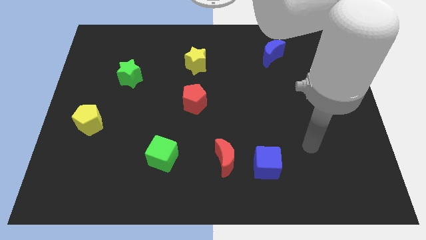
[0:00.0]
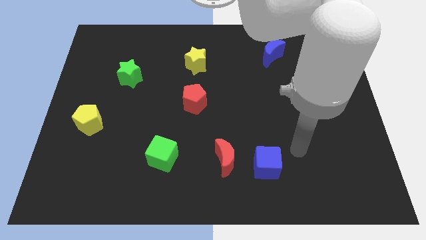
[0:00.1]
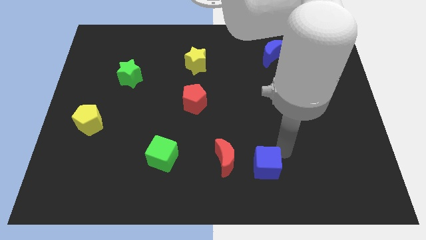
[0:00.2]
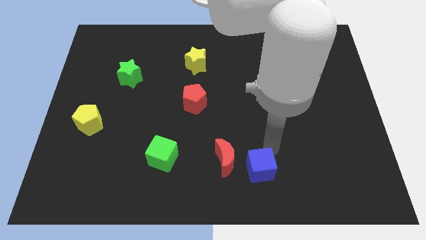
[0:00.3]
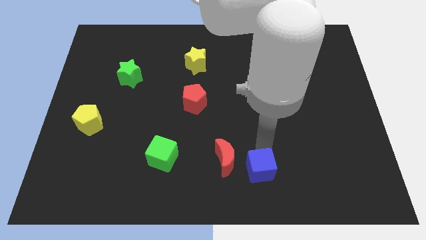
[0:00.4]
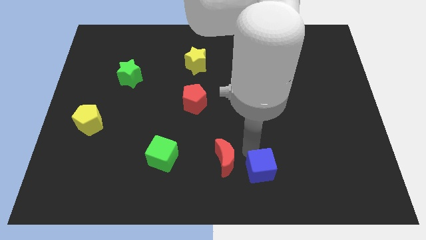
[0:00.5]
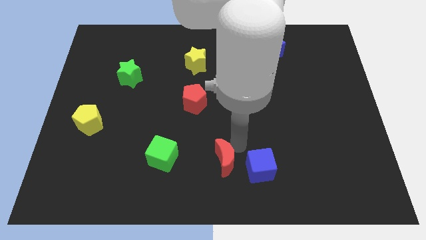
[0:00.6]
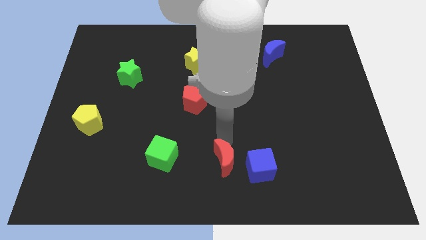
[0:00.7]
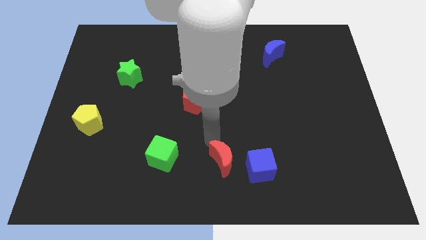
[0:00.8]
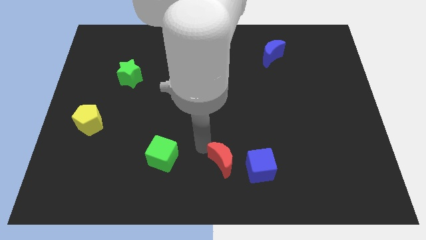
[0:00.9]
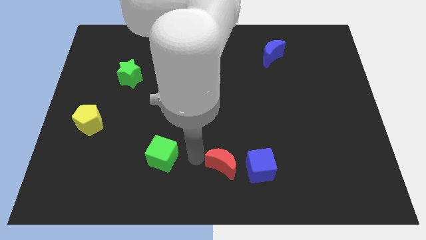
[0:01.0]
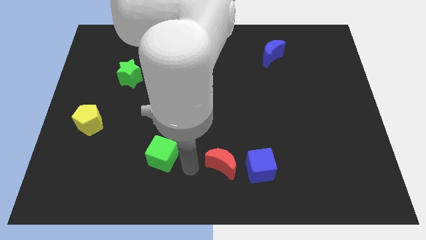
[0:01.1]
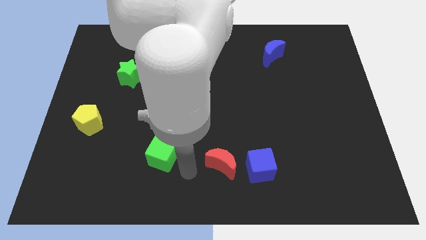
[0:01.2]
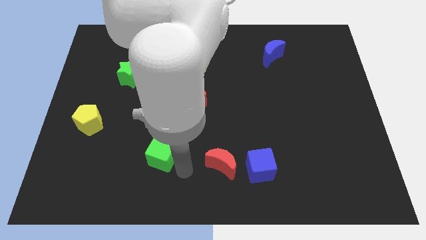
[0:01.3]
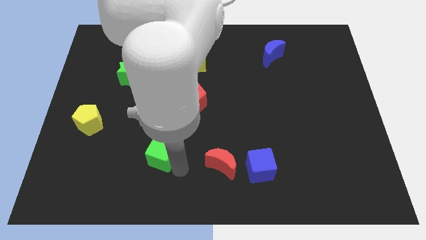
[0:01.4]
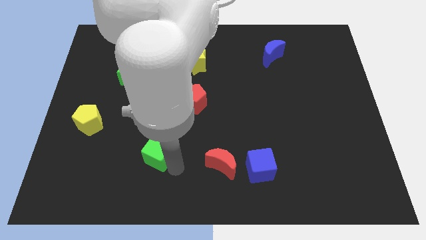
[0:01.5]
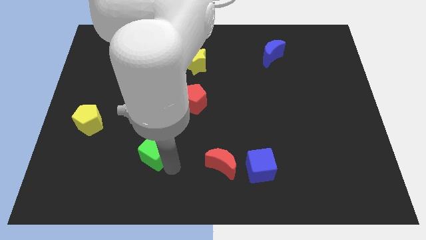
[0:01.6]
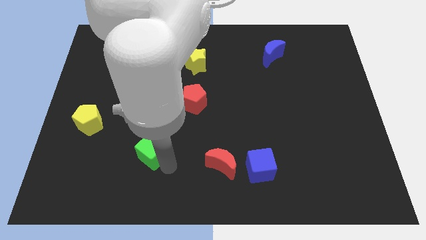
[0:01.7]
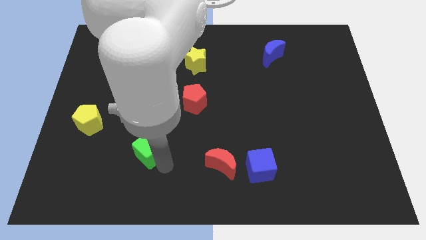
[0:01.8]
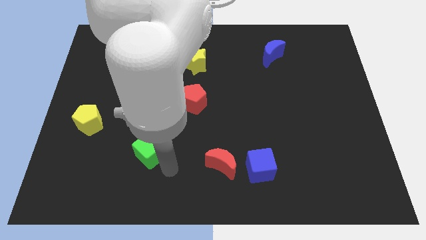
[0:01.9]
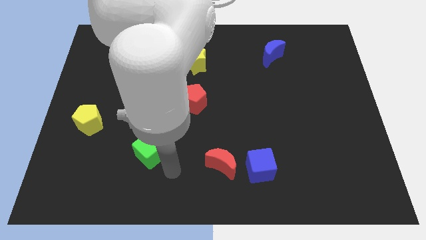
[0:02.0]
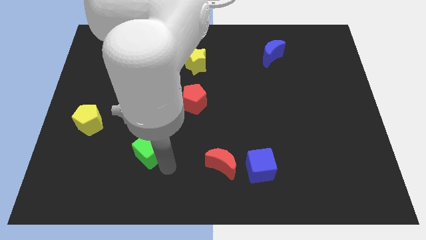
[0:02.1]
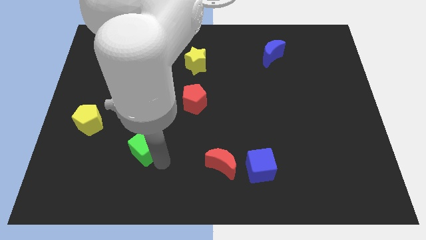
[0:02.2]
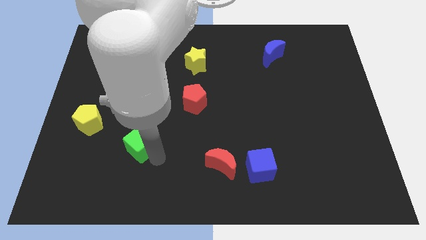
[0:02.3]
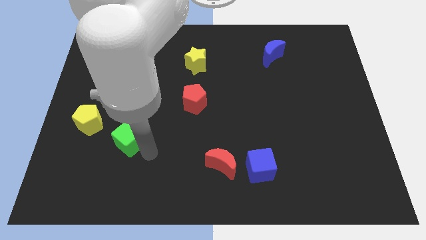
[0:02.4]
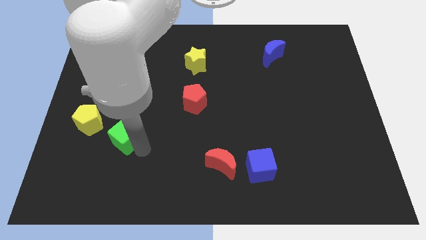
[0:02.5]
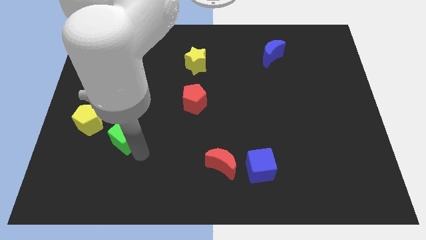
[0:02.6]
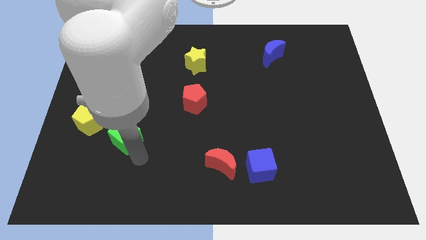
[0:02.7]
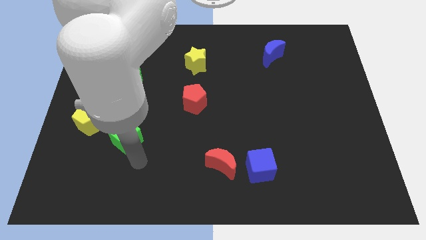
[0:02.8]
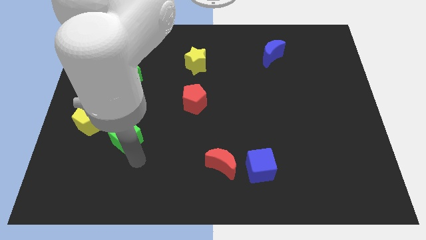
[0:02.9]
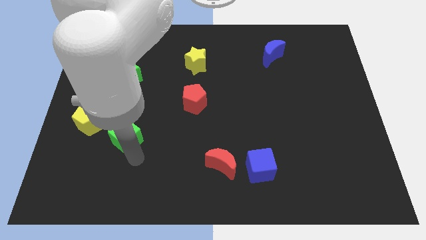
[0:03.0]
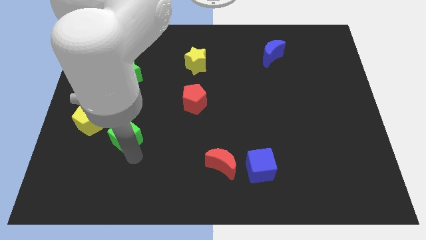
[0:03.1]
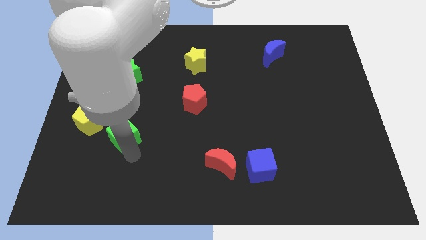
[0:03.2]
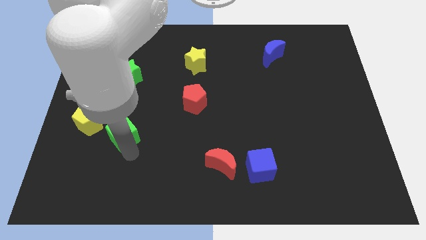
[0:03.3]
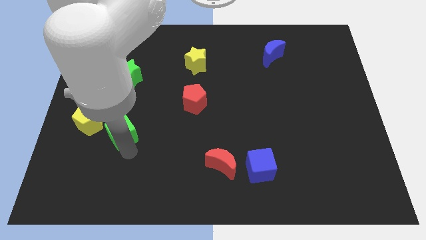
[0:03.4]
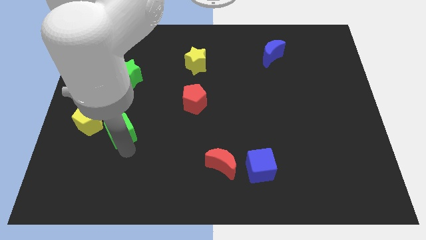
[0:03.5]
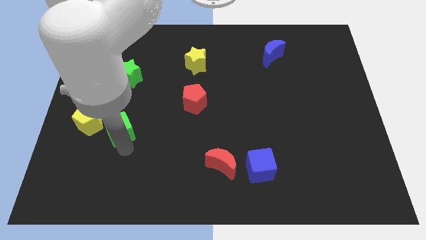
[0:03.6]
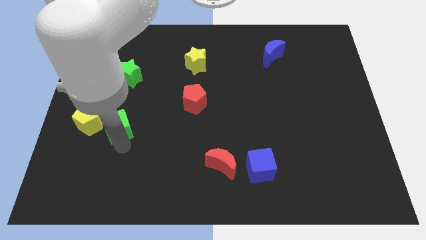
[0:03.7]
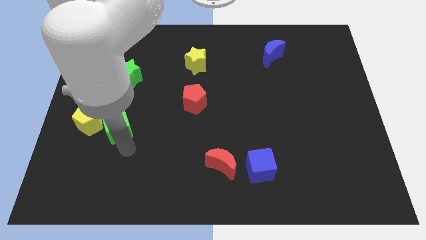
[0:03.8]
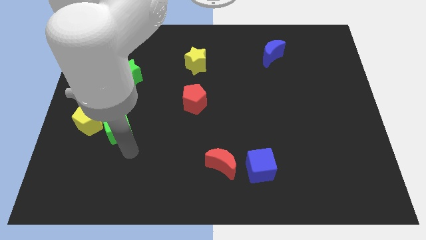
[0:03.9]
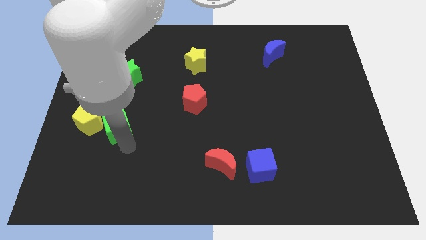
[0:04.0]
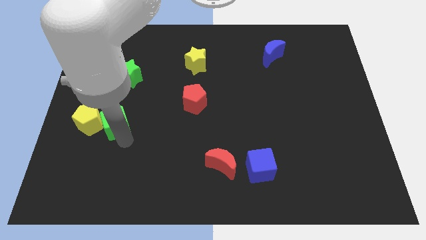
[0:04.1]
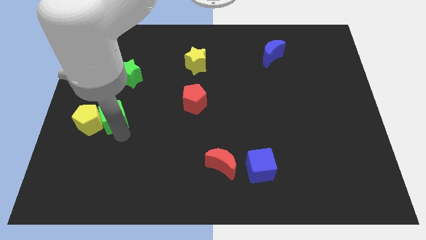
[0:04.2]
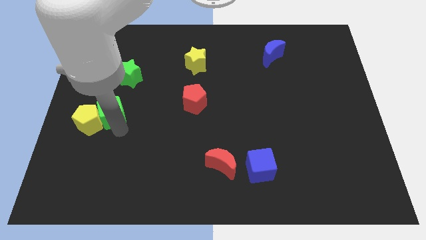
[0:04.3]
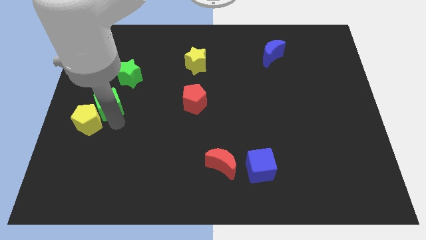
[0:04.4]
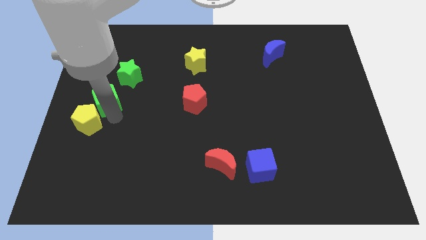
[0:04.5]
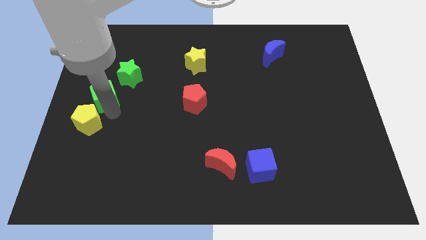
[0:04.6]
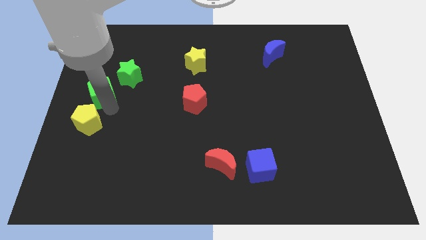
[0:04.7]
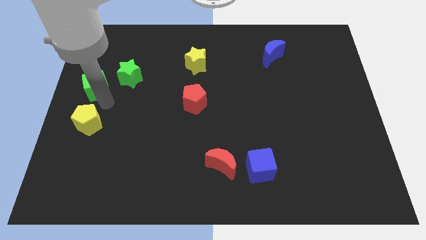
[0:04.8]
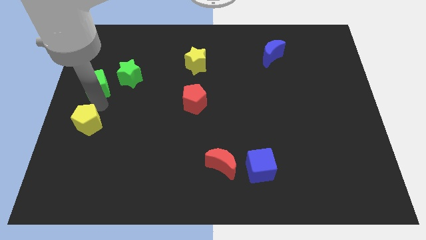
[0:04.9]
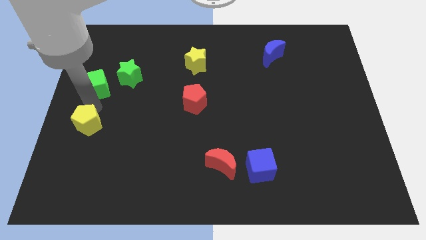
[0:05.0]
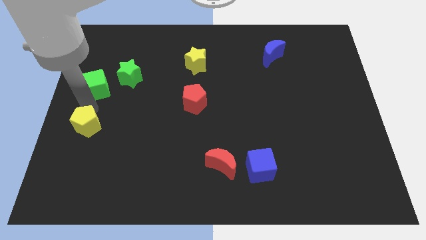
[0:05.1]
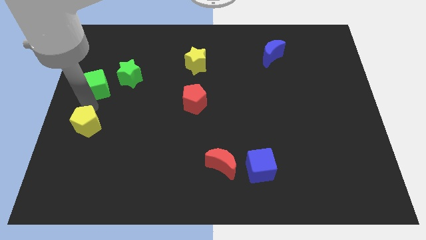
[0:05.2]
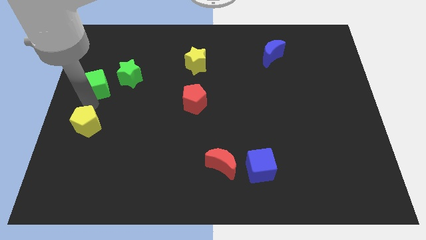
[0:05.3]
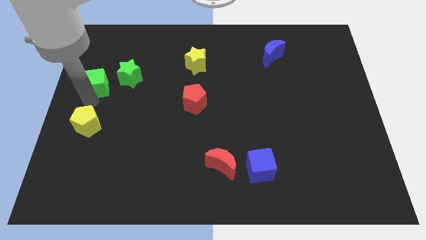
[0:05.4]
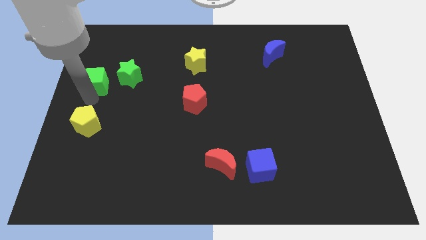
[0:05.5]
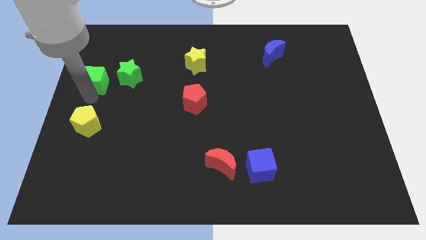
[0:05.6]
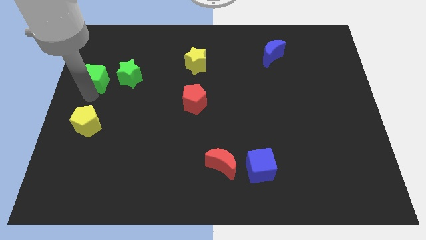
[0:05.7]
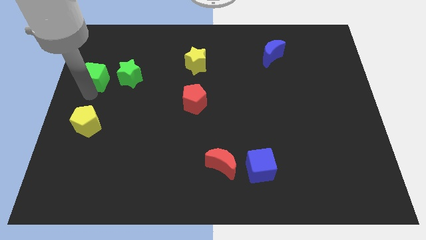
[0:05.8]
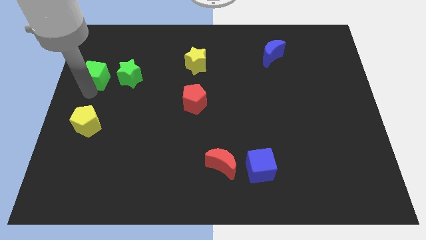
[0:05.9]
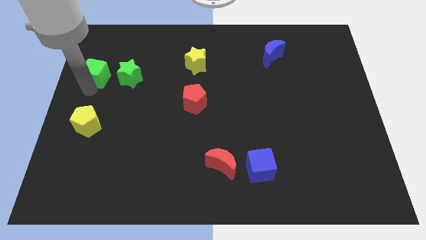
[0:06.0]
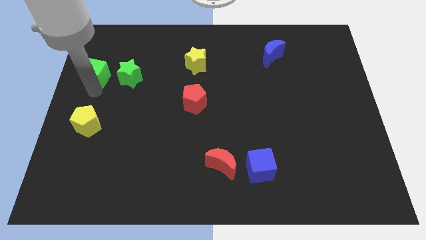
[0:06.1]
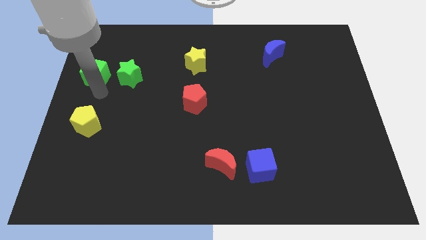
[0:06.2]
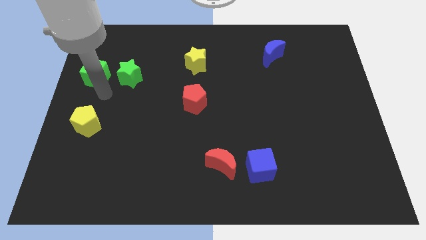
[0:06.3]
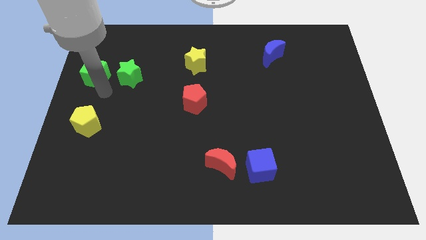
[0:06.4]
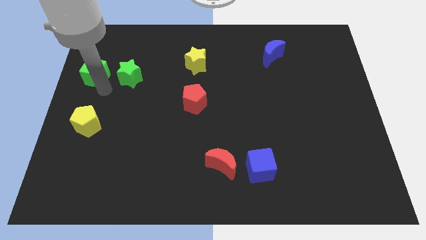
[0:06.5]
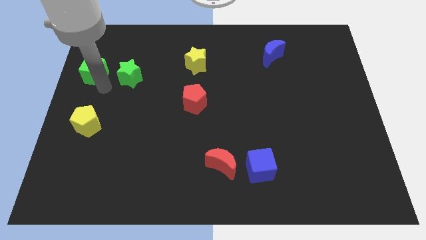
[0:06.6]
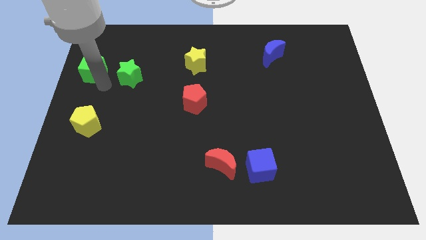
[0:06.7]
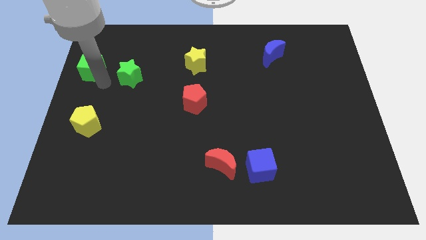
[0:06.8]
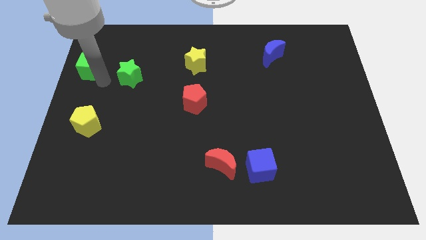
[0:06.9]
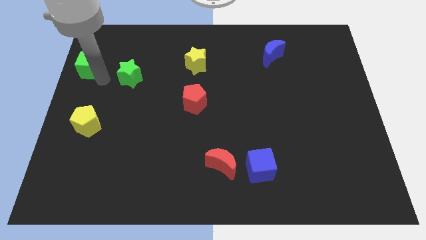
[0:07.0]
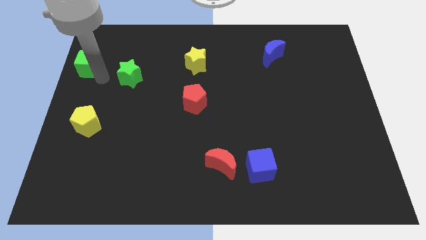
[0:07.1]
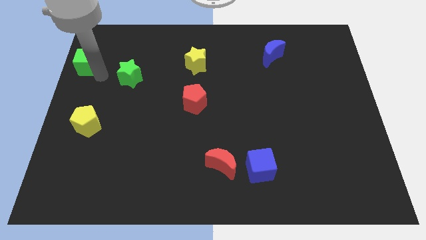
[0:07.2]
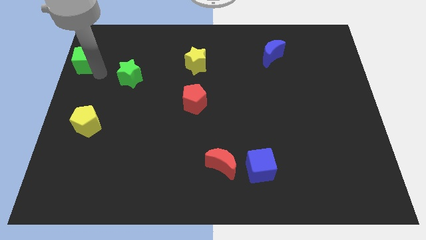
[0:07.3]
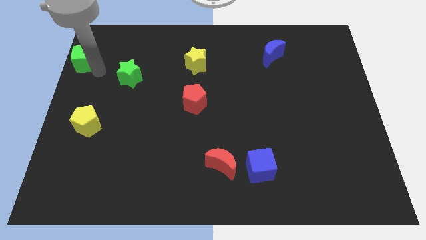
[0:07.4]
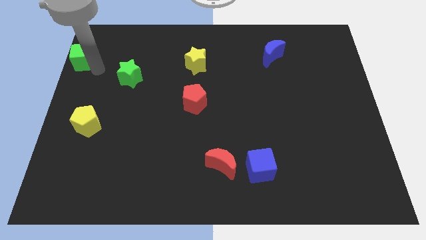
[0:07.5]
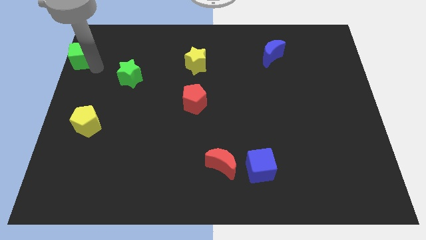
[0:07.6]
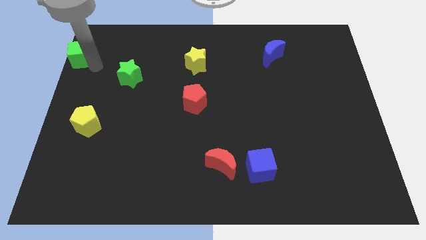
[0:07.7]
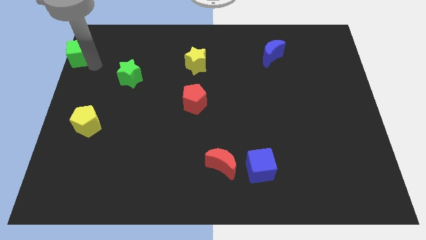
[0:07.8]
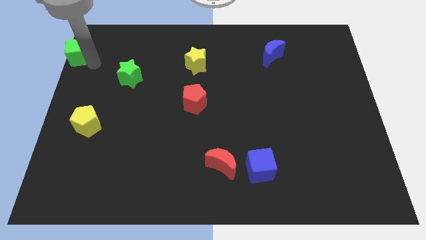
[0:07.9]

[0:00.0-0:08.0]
push the green cube to the top left corner
